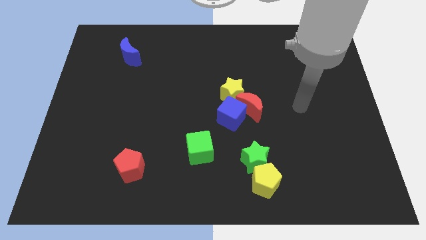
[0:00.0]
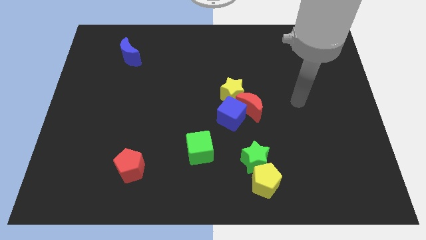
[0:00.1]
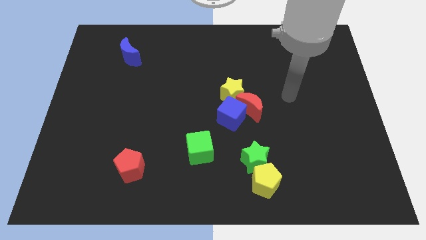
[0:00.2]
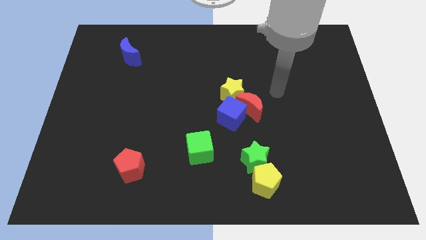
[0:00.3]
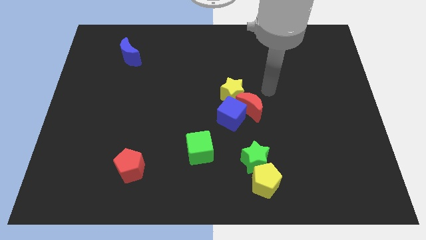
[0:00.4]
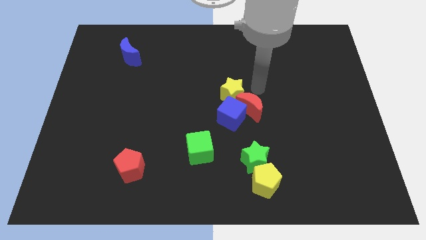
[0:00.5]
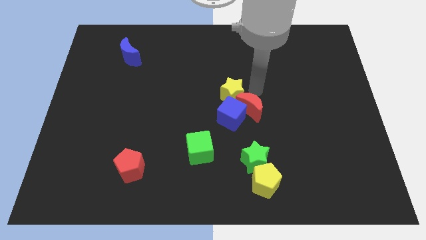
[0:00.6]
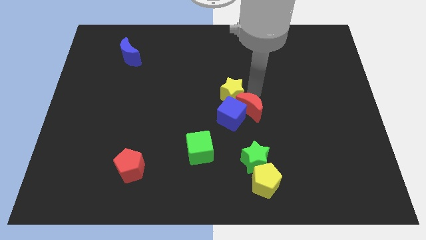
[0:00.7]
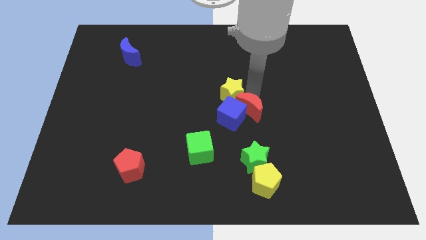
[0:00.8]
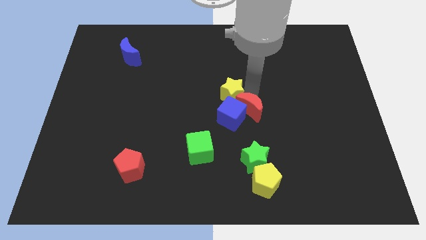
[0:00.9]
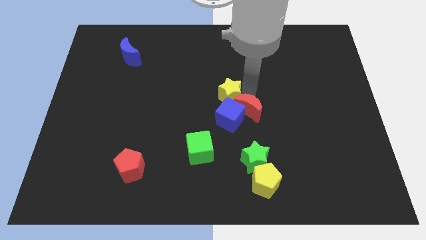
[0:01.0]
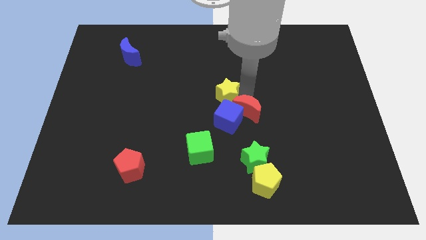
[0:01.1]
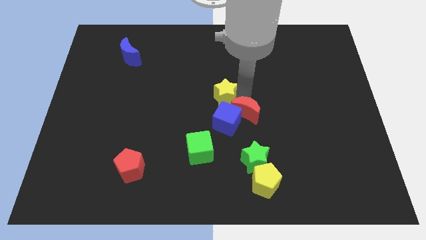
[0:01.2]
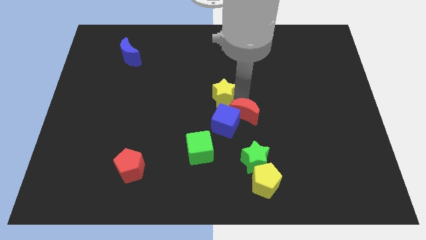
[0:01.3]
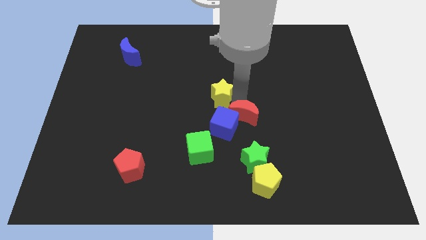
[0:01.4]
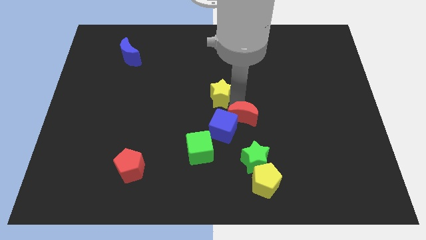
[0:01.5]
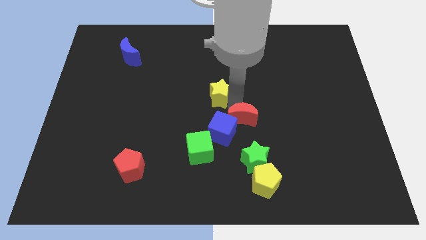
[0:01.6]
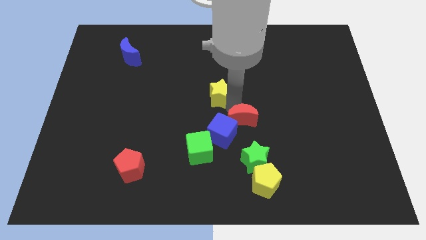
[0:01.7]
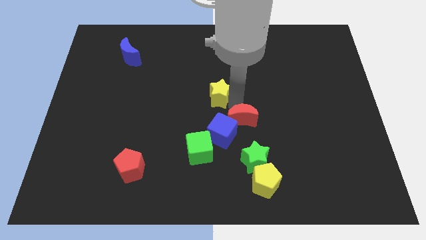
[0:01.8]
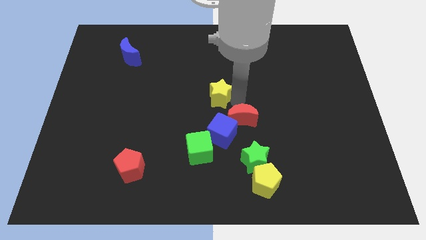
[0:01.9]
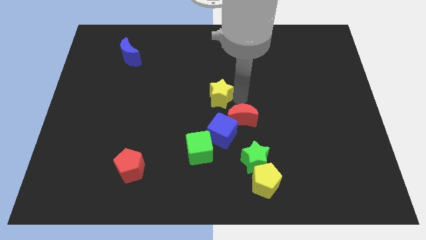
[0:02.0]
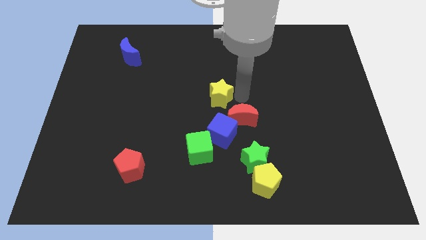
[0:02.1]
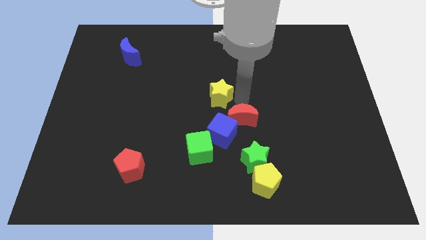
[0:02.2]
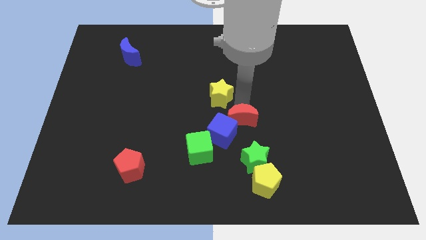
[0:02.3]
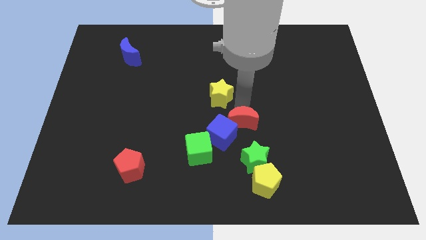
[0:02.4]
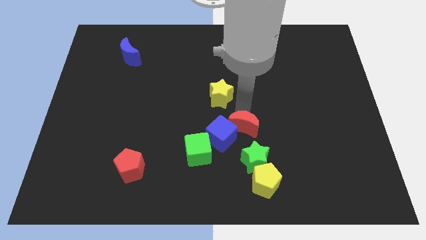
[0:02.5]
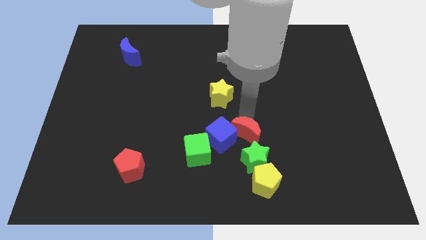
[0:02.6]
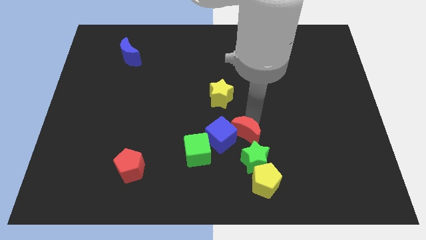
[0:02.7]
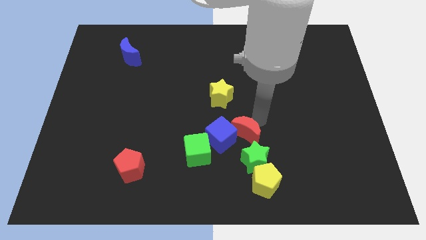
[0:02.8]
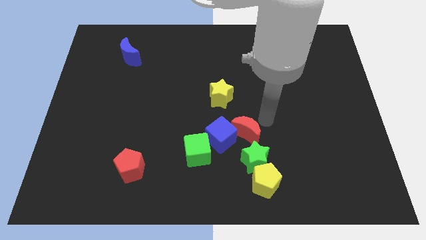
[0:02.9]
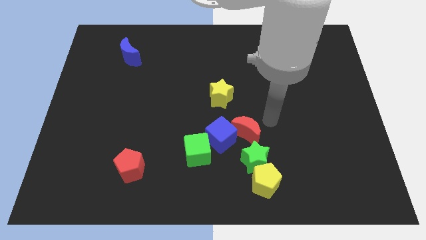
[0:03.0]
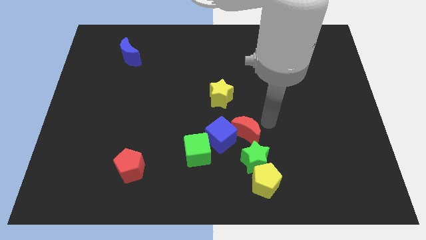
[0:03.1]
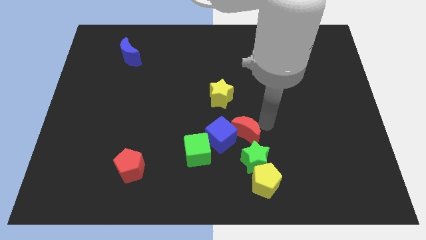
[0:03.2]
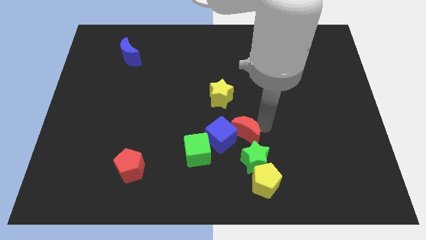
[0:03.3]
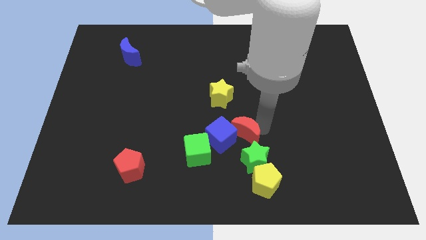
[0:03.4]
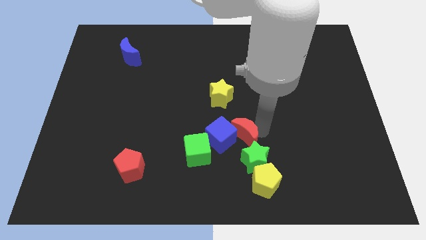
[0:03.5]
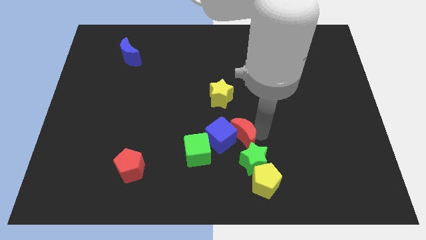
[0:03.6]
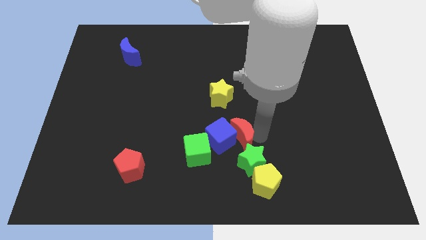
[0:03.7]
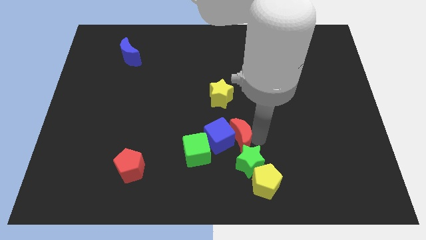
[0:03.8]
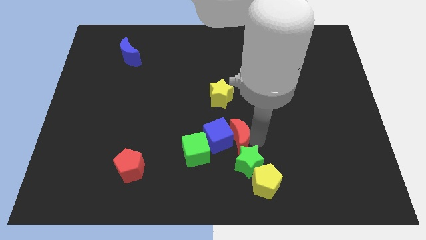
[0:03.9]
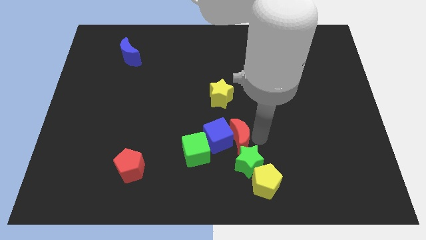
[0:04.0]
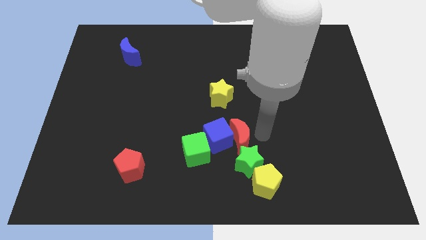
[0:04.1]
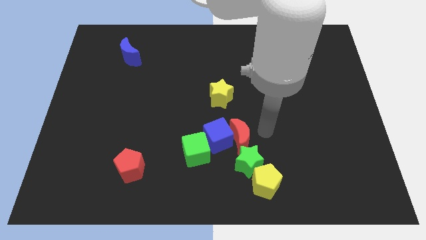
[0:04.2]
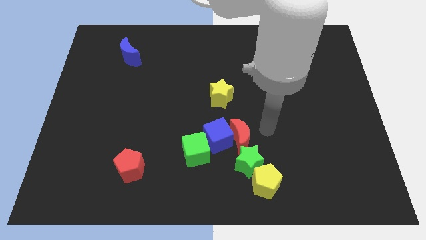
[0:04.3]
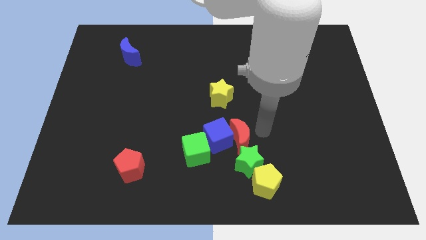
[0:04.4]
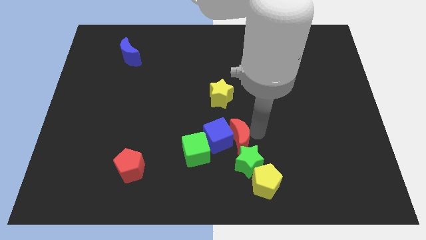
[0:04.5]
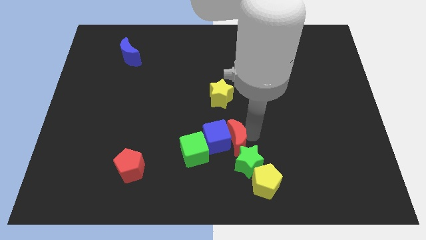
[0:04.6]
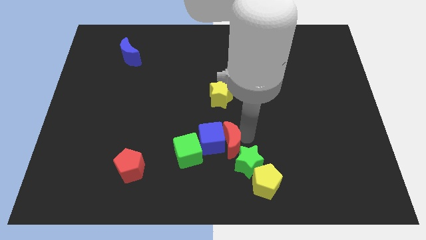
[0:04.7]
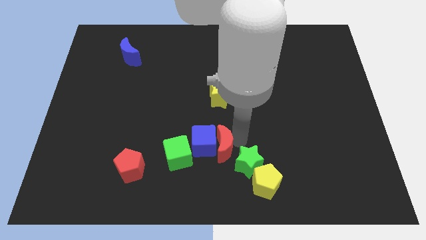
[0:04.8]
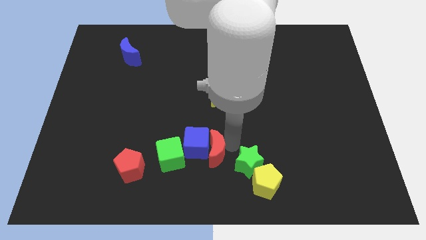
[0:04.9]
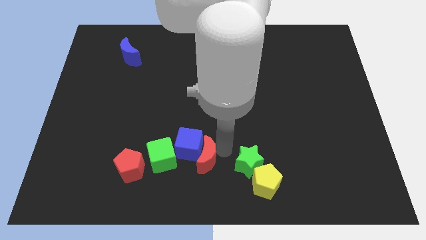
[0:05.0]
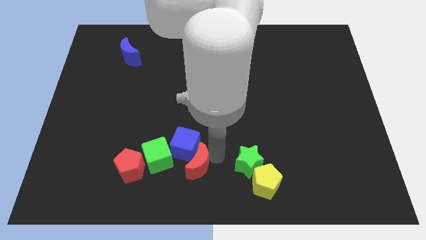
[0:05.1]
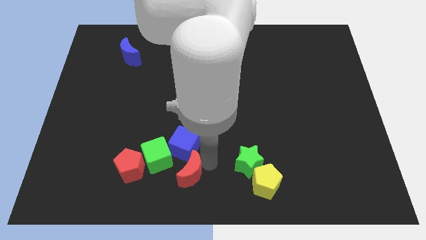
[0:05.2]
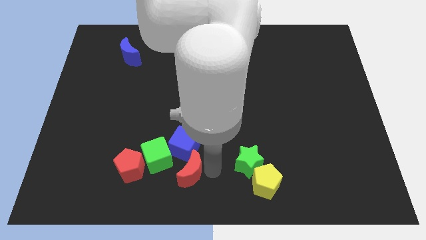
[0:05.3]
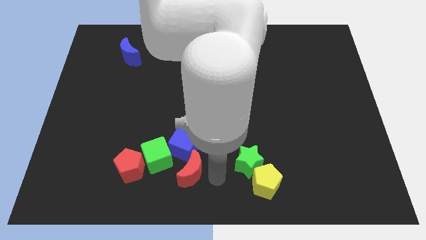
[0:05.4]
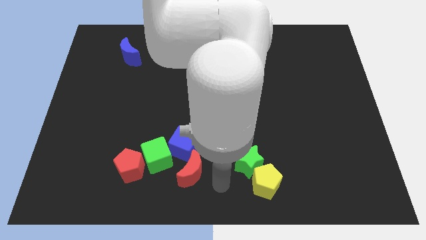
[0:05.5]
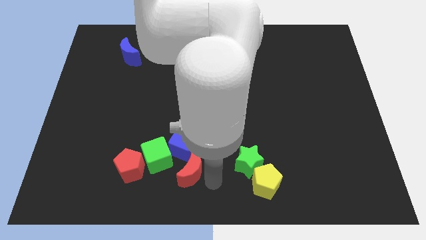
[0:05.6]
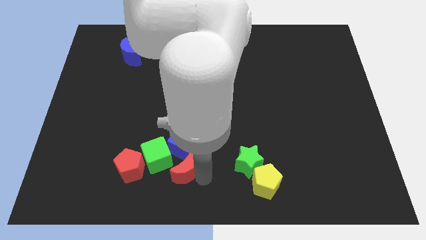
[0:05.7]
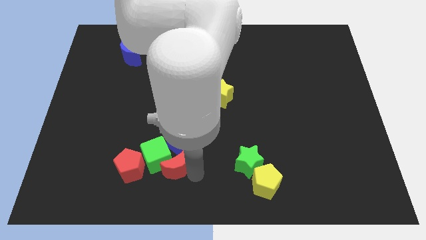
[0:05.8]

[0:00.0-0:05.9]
slide the red moon next to the green cube

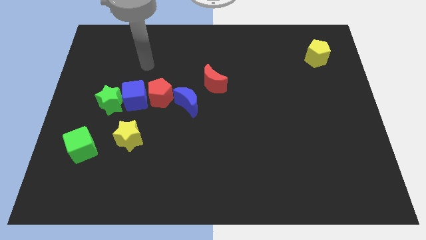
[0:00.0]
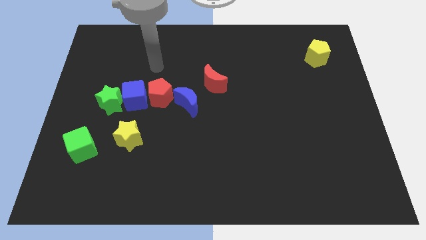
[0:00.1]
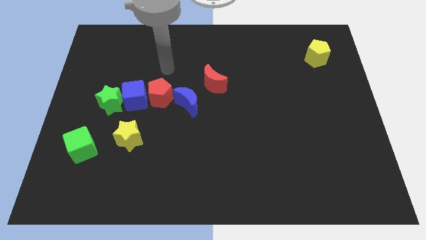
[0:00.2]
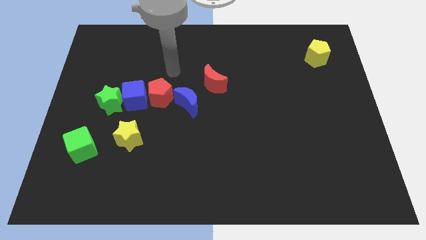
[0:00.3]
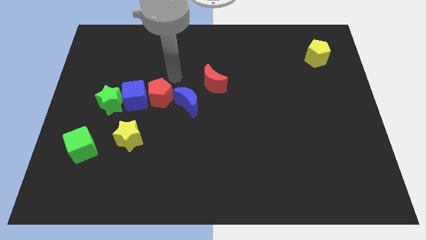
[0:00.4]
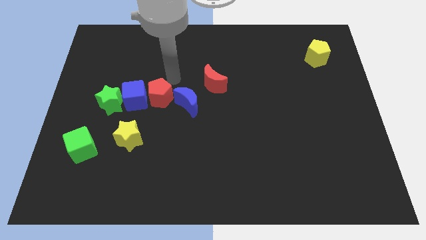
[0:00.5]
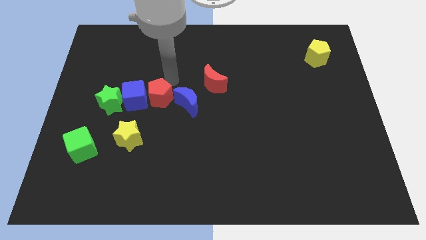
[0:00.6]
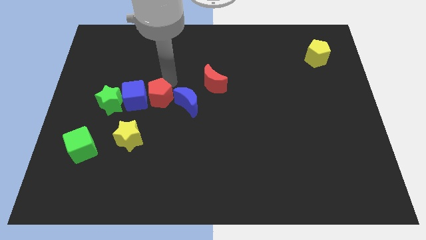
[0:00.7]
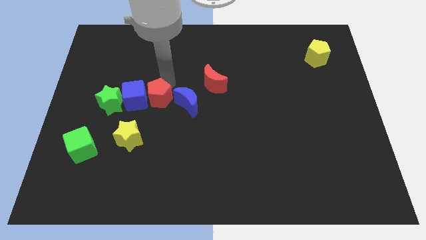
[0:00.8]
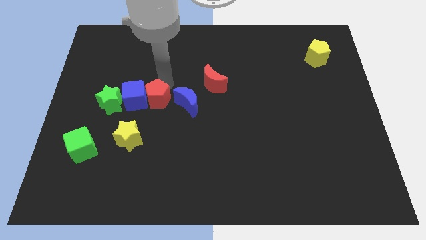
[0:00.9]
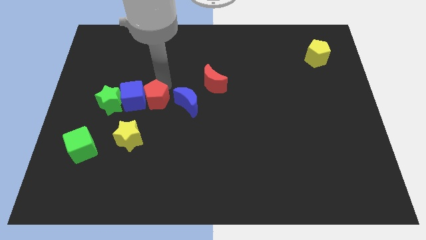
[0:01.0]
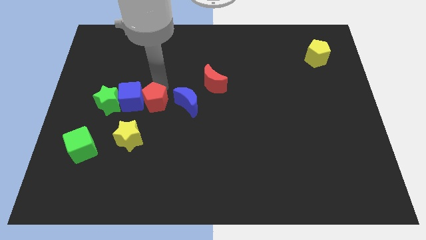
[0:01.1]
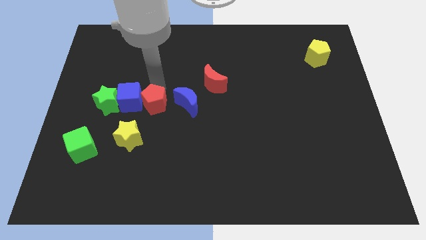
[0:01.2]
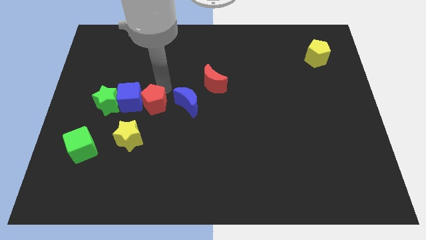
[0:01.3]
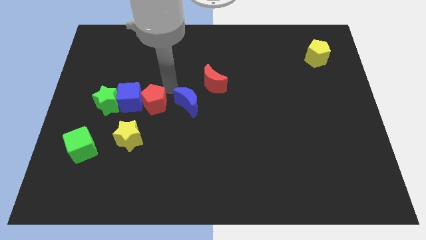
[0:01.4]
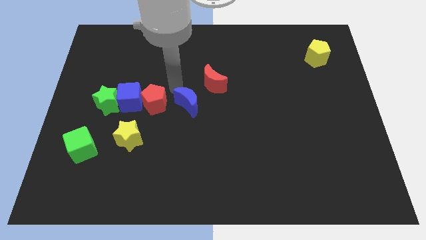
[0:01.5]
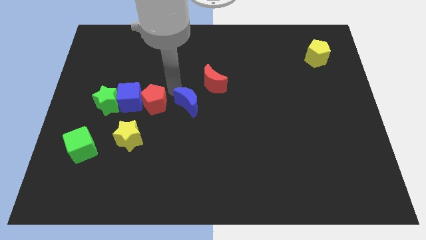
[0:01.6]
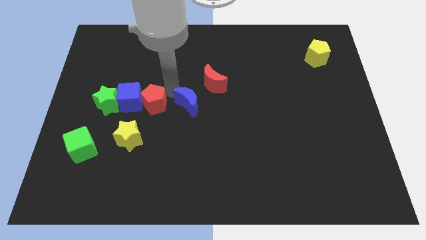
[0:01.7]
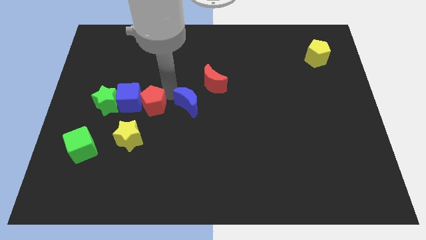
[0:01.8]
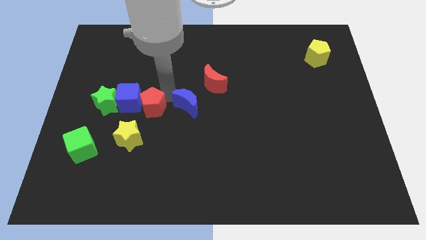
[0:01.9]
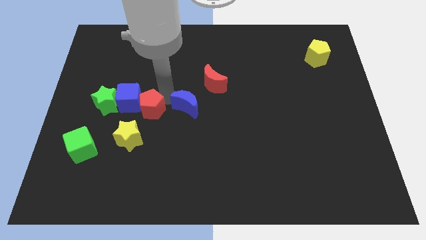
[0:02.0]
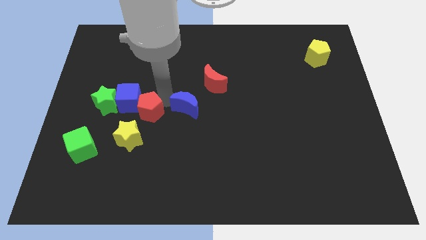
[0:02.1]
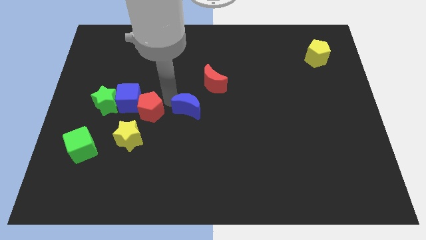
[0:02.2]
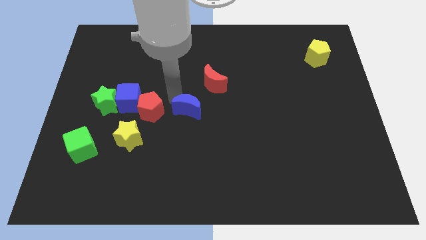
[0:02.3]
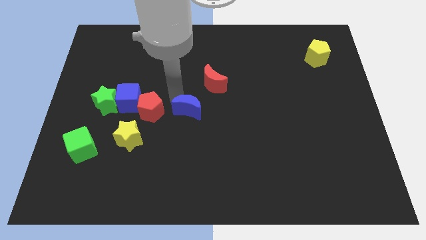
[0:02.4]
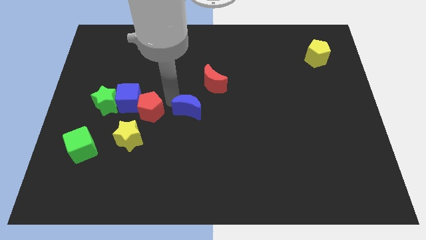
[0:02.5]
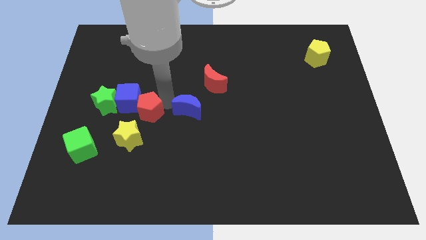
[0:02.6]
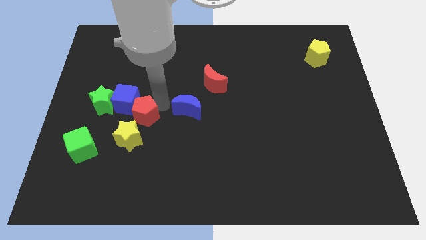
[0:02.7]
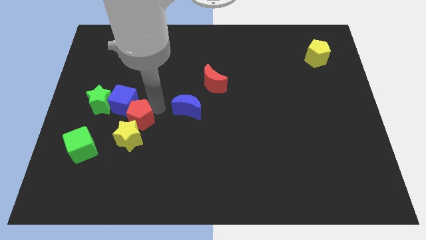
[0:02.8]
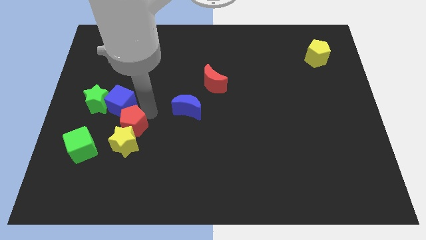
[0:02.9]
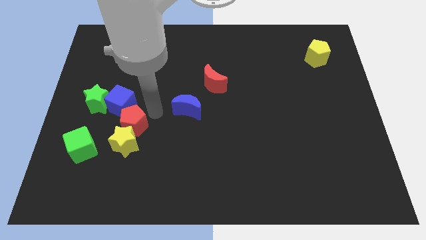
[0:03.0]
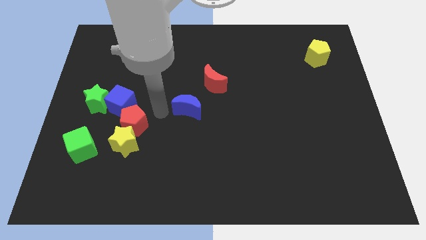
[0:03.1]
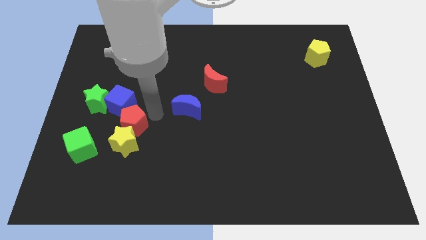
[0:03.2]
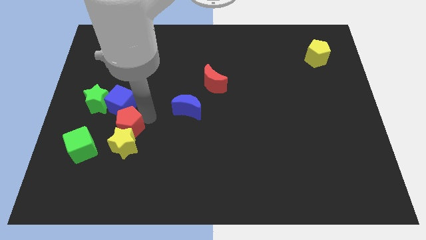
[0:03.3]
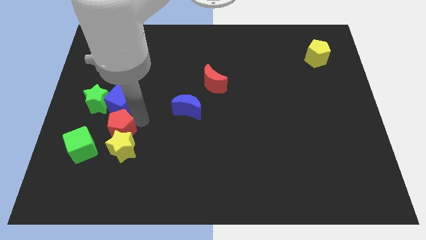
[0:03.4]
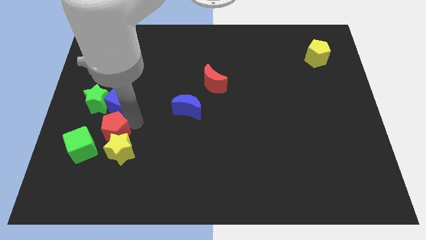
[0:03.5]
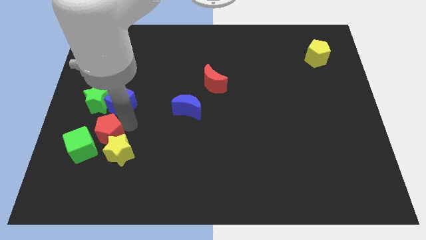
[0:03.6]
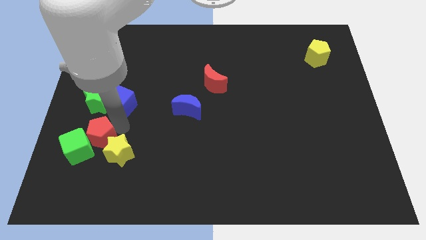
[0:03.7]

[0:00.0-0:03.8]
slide the red pentagon next to the green cube
